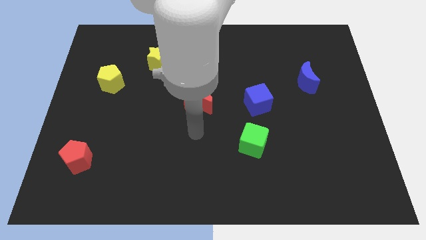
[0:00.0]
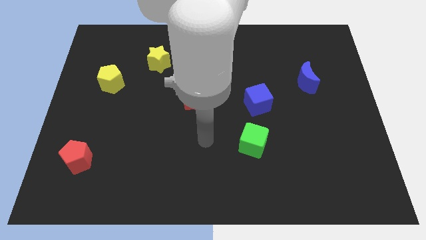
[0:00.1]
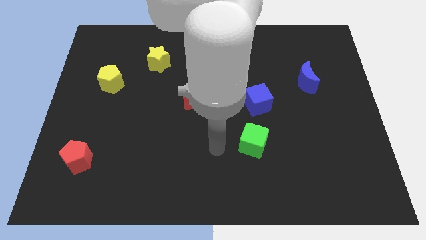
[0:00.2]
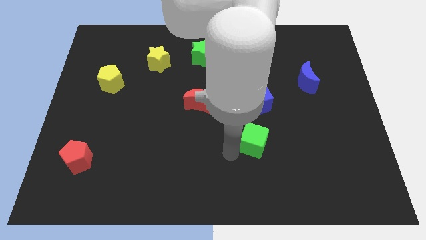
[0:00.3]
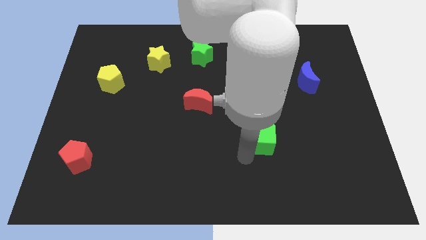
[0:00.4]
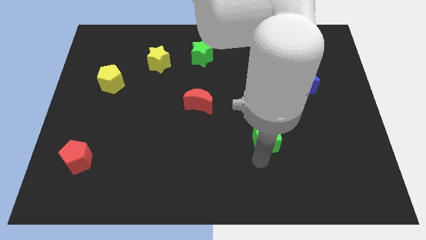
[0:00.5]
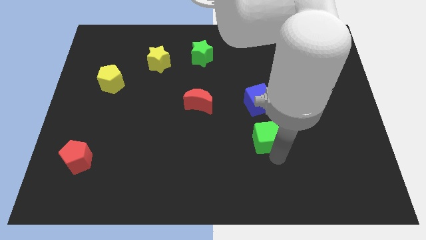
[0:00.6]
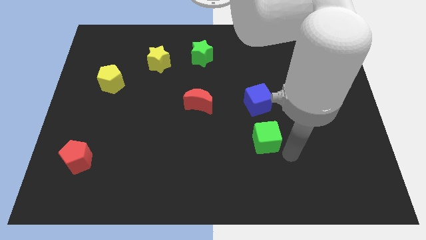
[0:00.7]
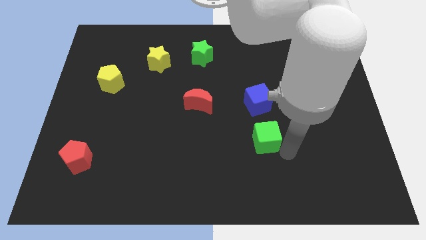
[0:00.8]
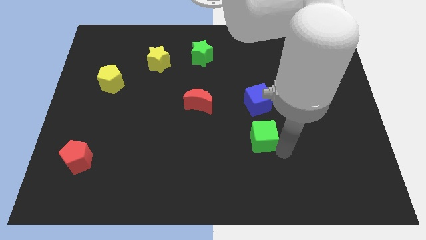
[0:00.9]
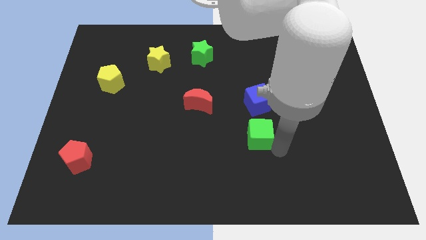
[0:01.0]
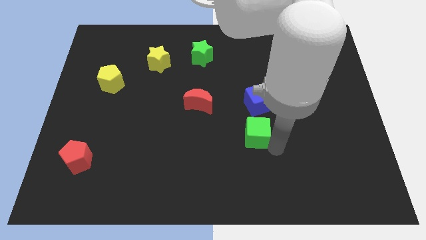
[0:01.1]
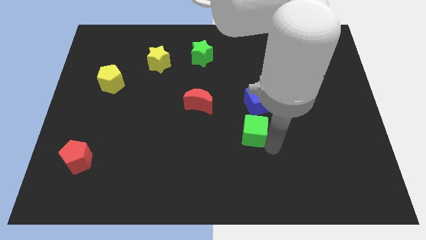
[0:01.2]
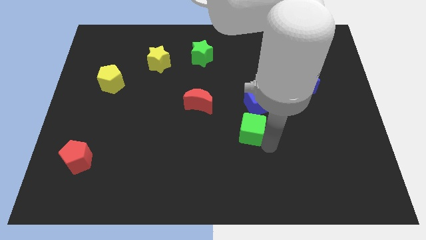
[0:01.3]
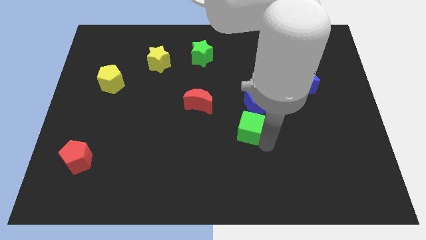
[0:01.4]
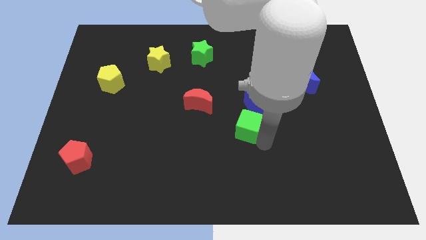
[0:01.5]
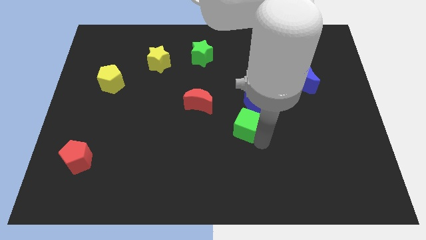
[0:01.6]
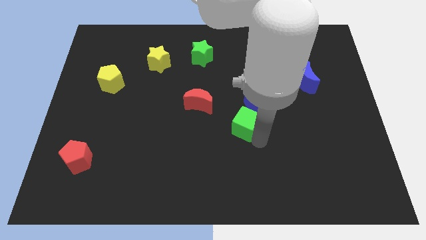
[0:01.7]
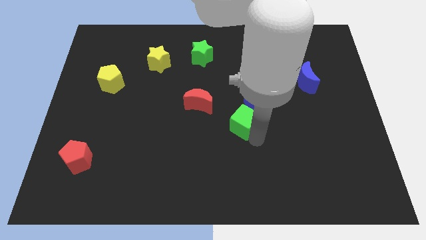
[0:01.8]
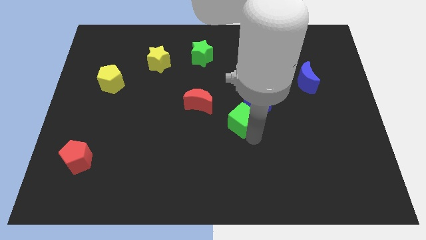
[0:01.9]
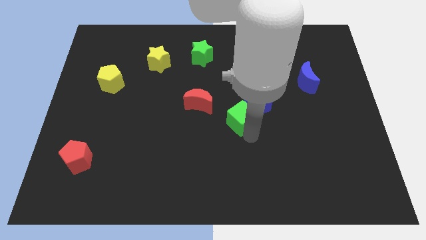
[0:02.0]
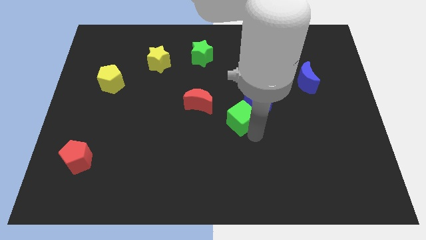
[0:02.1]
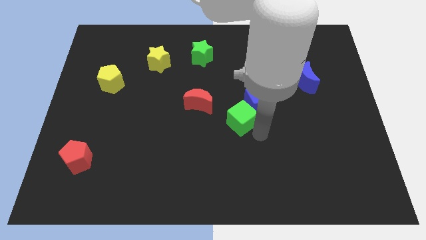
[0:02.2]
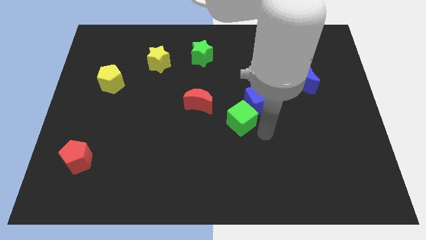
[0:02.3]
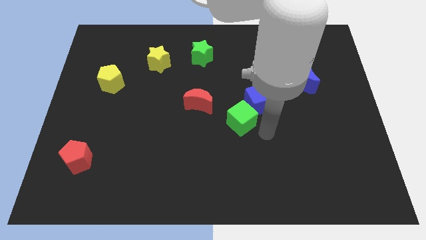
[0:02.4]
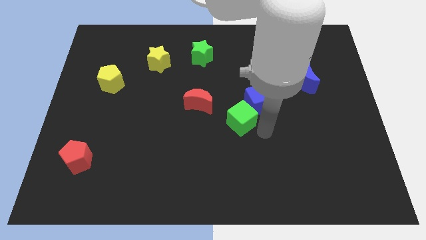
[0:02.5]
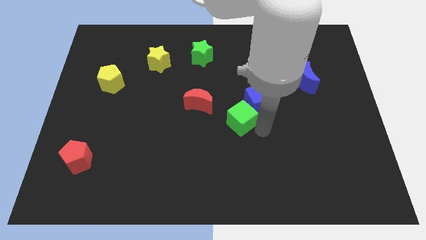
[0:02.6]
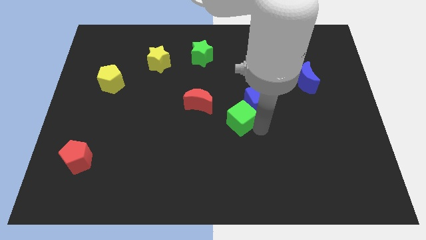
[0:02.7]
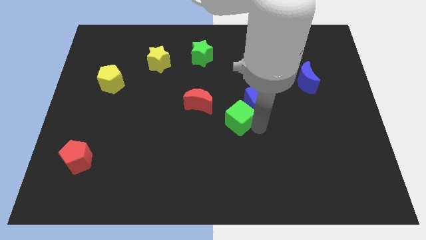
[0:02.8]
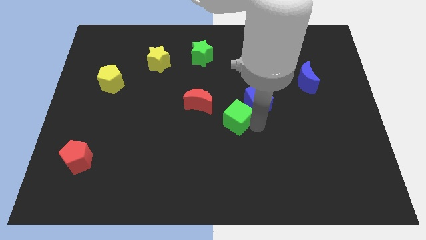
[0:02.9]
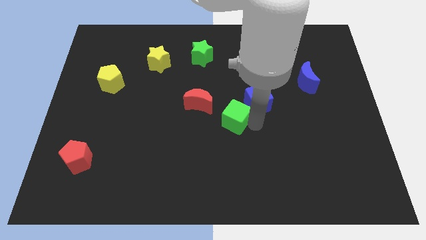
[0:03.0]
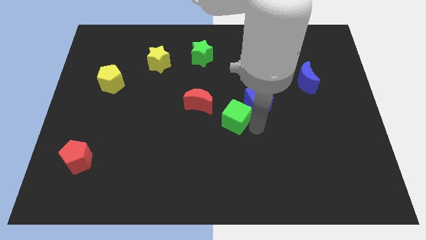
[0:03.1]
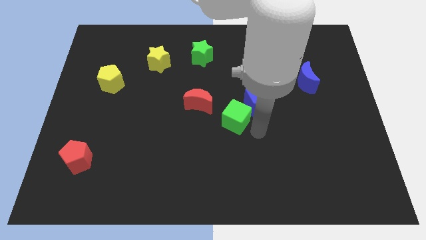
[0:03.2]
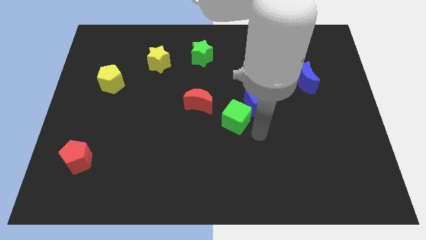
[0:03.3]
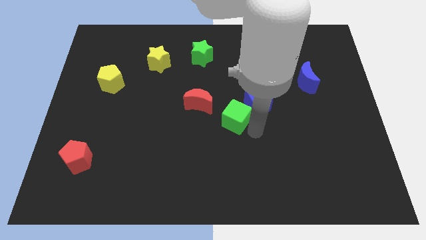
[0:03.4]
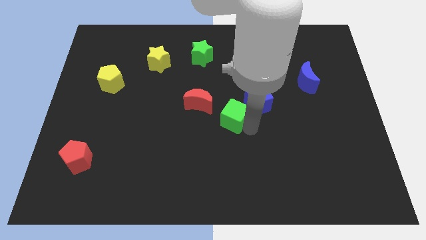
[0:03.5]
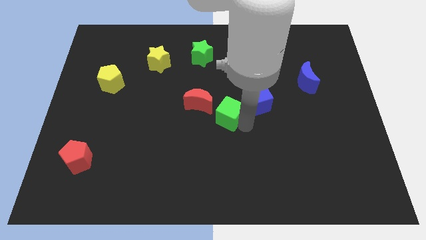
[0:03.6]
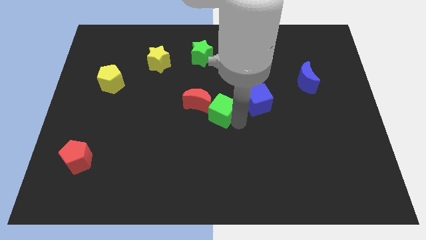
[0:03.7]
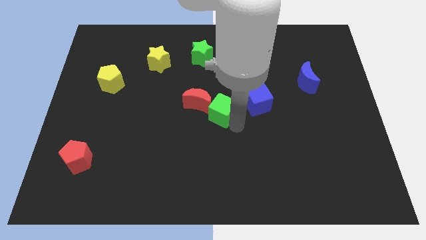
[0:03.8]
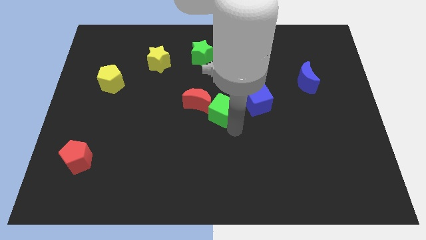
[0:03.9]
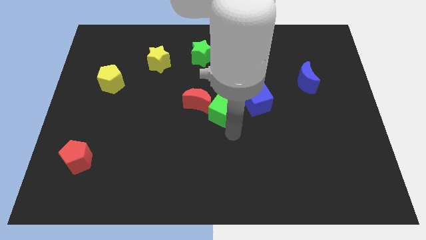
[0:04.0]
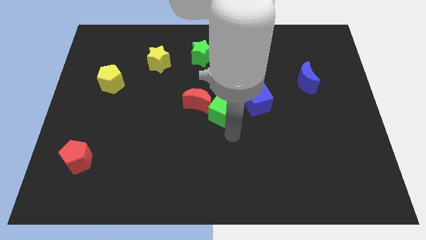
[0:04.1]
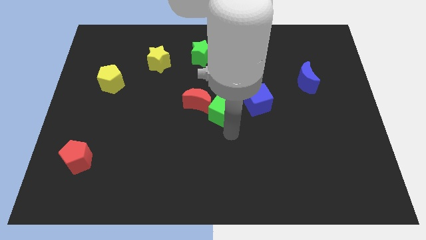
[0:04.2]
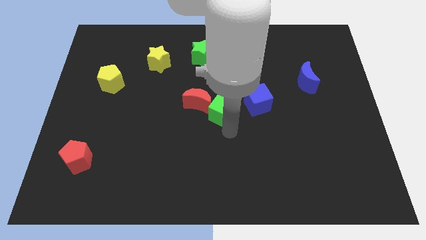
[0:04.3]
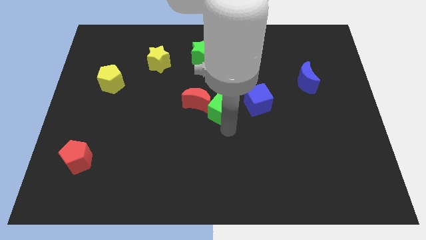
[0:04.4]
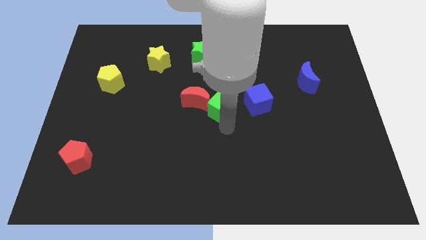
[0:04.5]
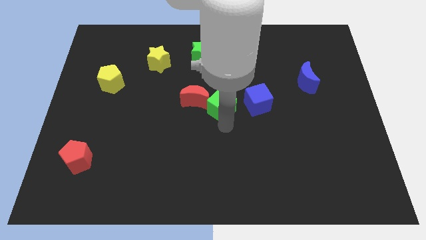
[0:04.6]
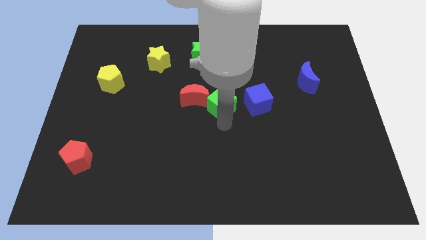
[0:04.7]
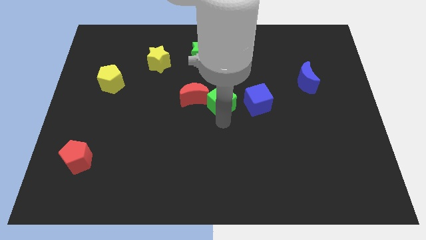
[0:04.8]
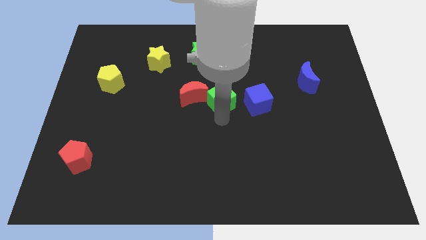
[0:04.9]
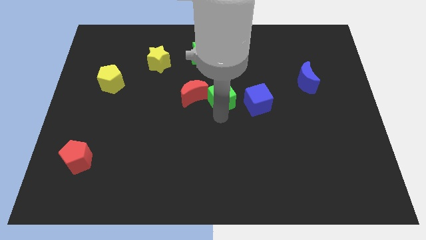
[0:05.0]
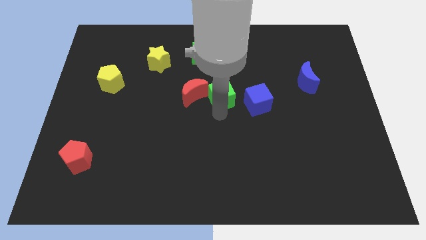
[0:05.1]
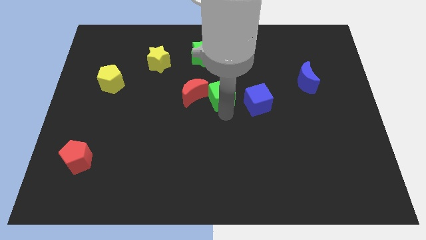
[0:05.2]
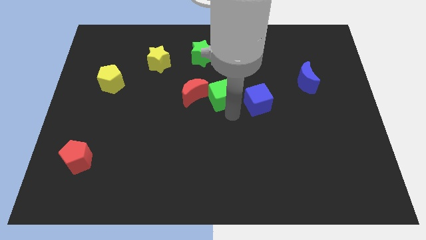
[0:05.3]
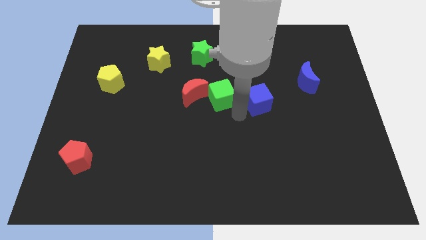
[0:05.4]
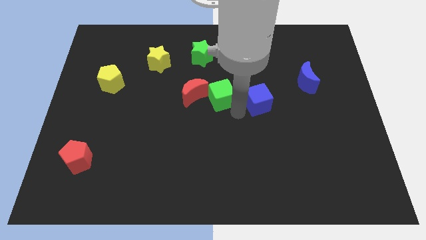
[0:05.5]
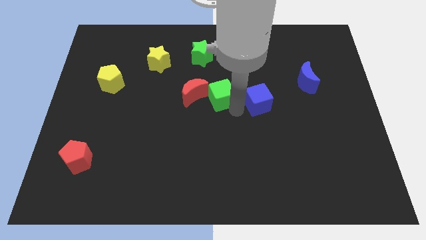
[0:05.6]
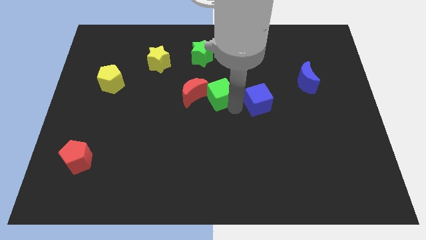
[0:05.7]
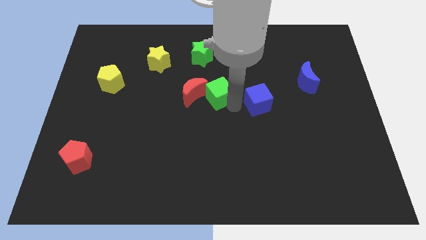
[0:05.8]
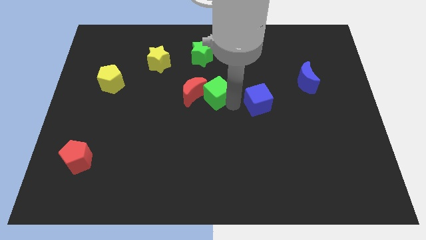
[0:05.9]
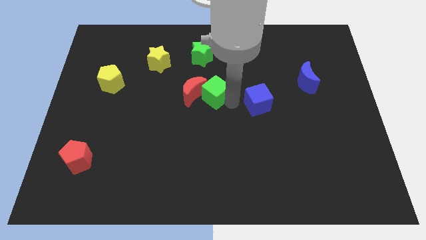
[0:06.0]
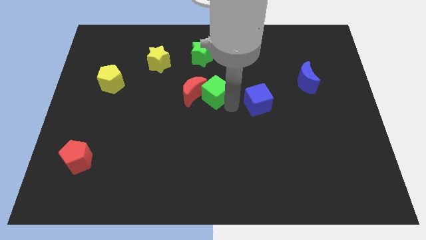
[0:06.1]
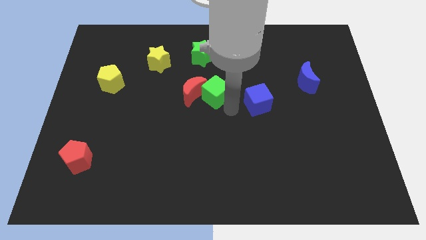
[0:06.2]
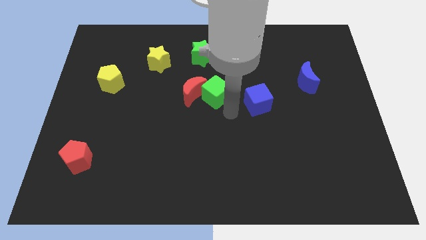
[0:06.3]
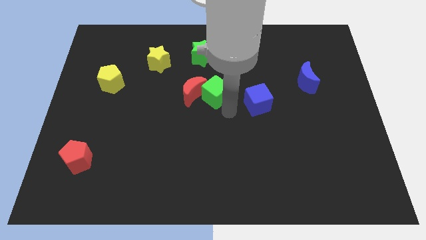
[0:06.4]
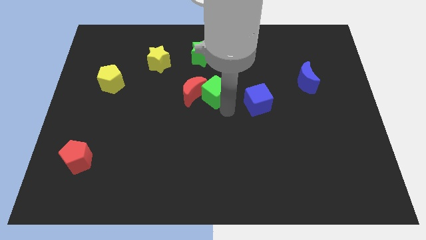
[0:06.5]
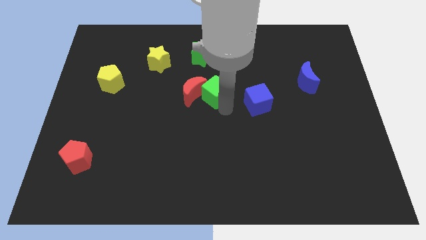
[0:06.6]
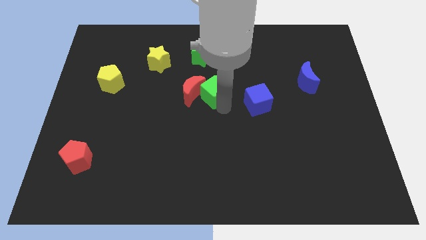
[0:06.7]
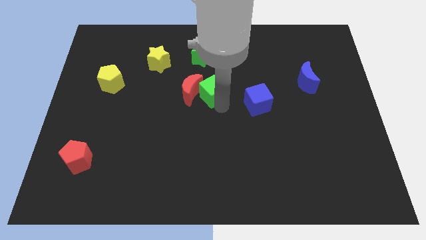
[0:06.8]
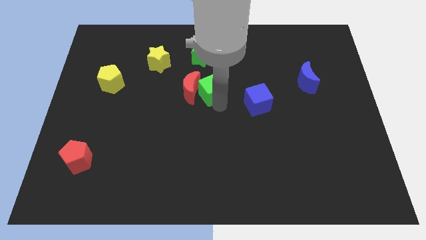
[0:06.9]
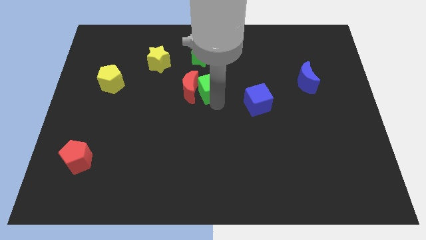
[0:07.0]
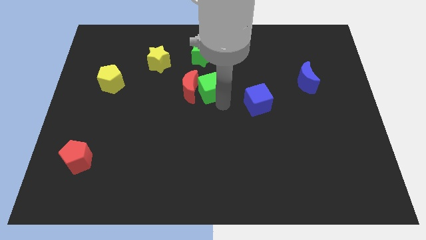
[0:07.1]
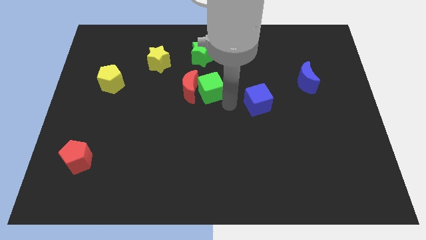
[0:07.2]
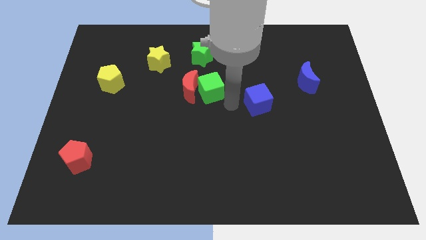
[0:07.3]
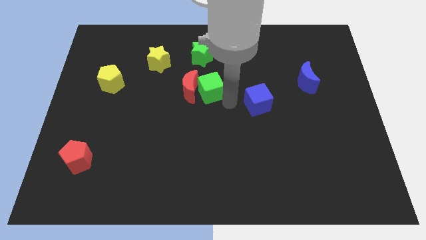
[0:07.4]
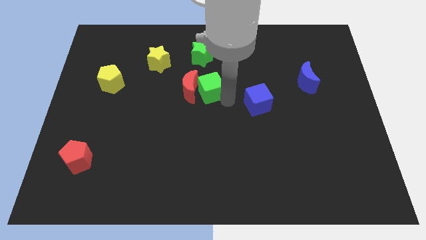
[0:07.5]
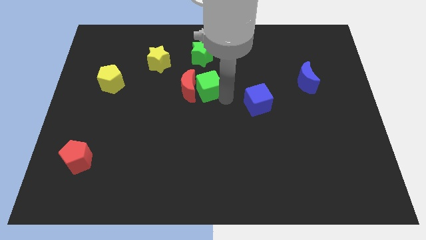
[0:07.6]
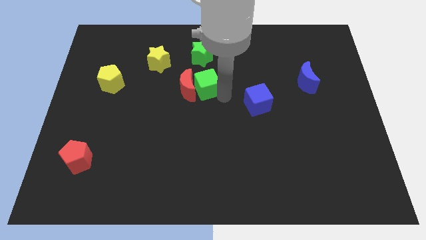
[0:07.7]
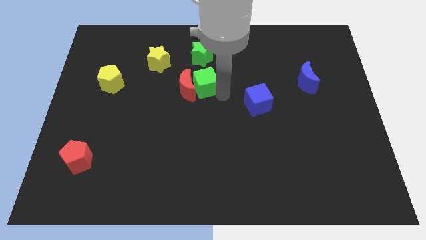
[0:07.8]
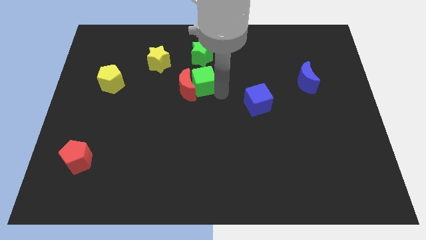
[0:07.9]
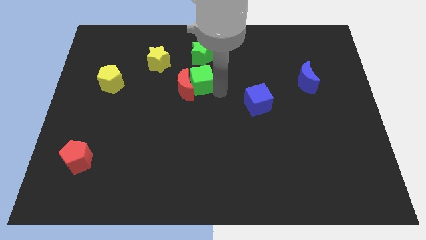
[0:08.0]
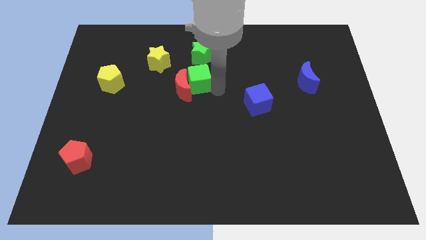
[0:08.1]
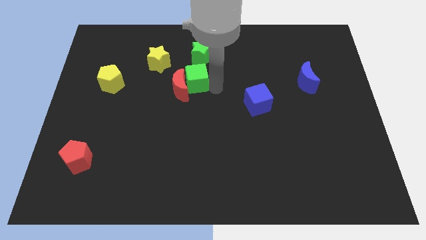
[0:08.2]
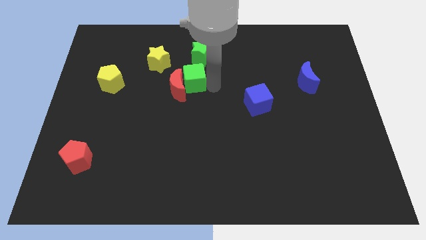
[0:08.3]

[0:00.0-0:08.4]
move the green cube diagonally down and to the left of the green star
